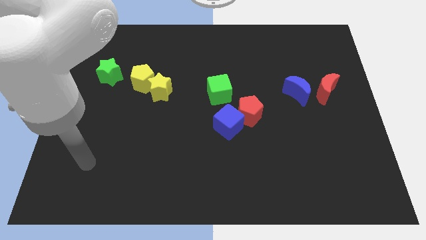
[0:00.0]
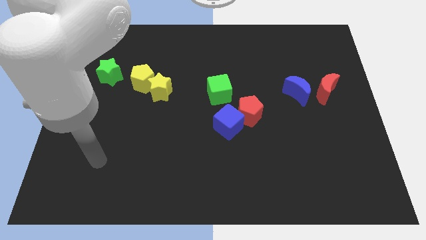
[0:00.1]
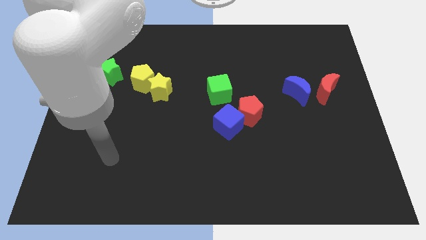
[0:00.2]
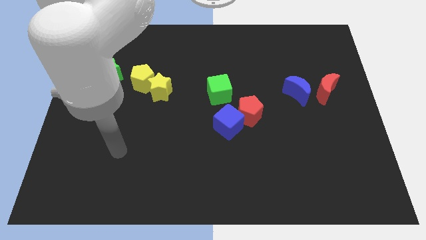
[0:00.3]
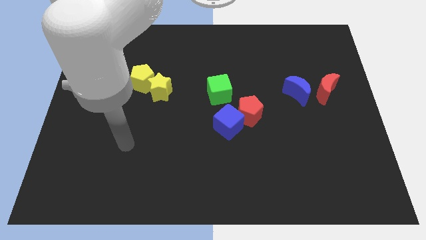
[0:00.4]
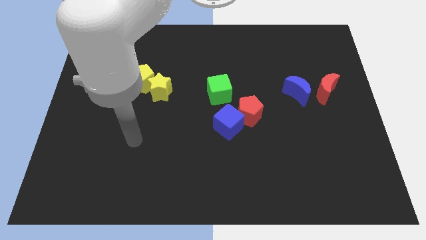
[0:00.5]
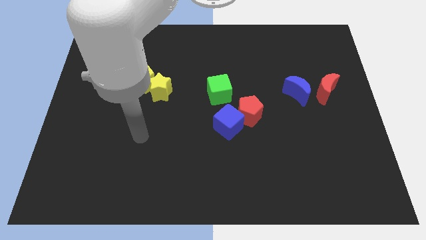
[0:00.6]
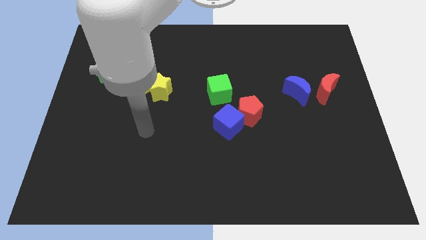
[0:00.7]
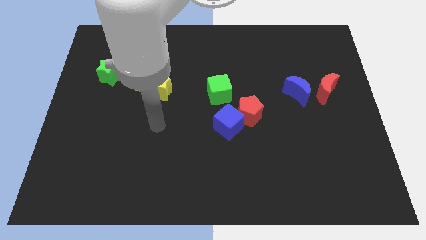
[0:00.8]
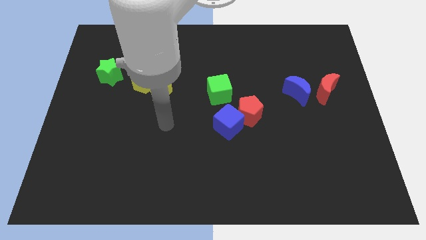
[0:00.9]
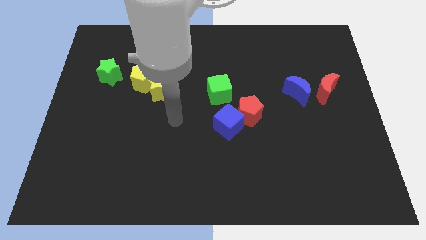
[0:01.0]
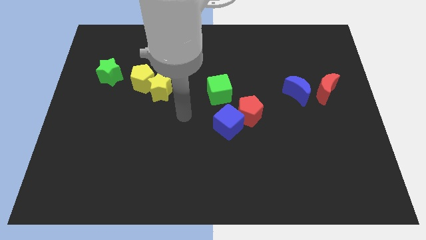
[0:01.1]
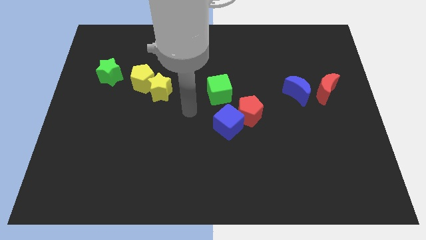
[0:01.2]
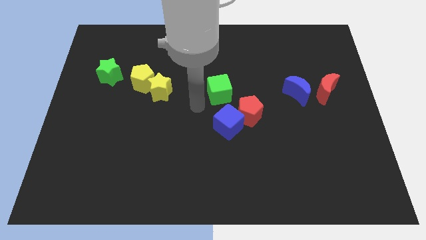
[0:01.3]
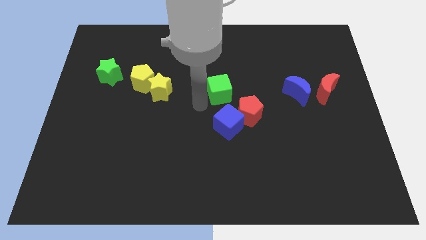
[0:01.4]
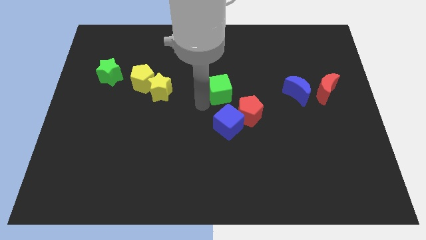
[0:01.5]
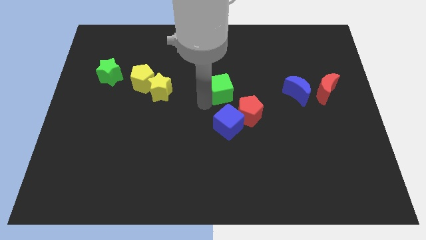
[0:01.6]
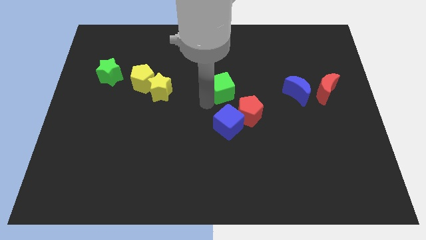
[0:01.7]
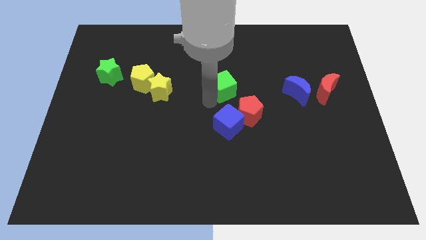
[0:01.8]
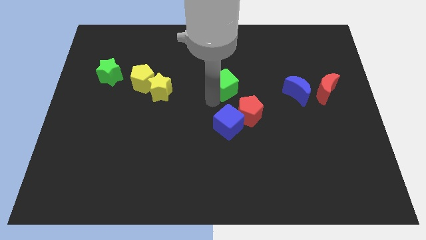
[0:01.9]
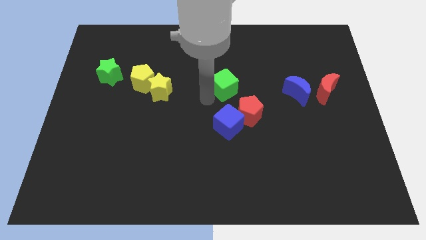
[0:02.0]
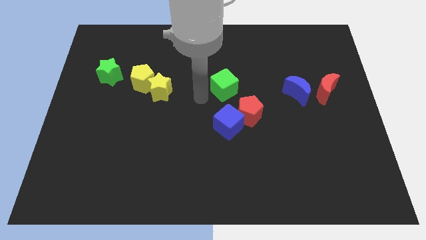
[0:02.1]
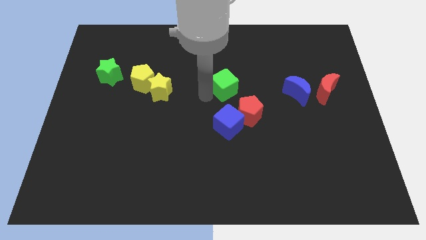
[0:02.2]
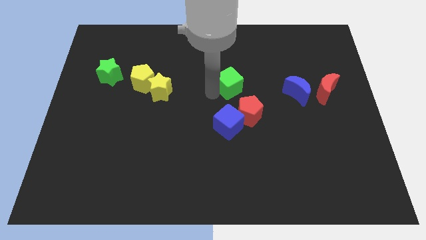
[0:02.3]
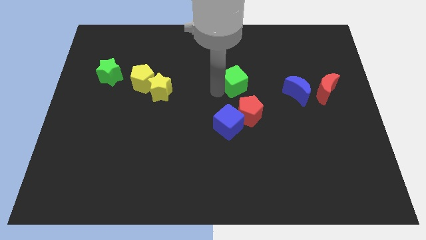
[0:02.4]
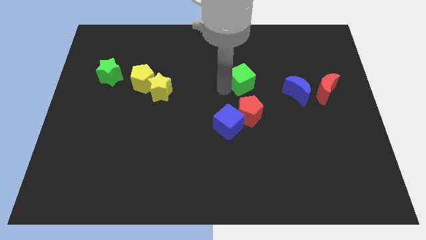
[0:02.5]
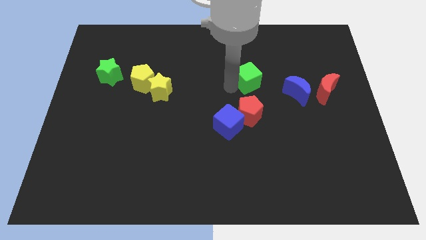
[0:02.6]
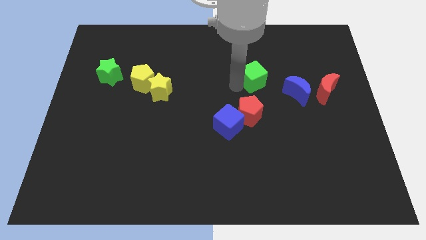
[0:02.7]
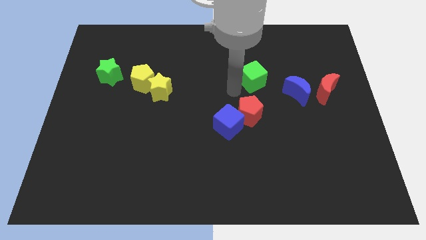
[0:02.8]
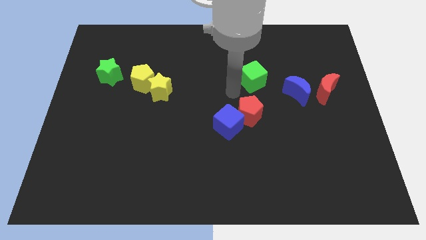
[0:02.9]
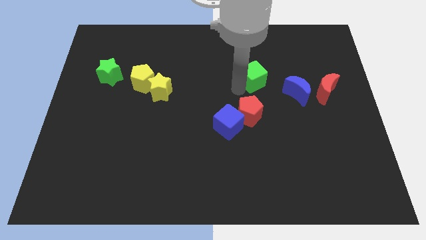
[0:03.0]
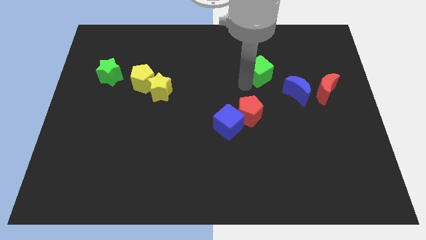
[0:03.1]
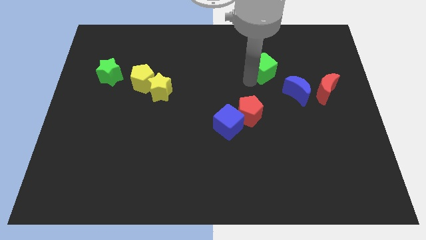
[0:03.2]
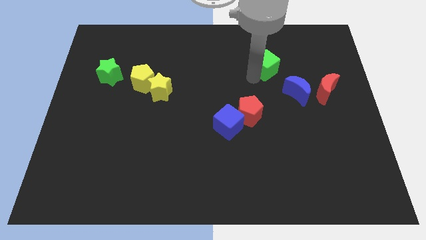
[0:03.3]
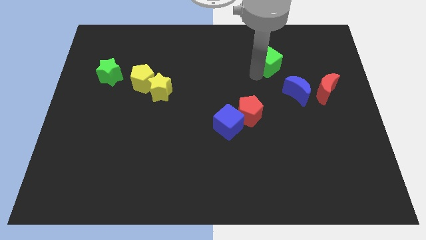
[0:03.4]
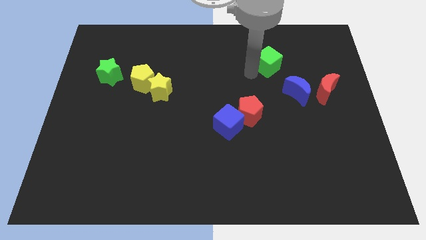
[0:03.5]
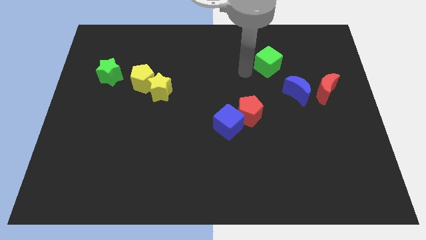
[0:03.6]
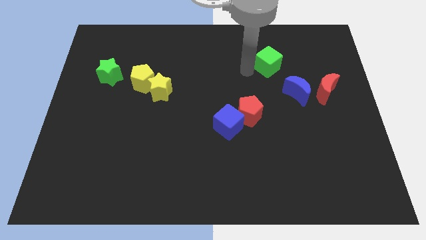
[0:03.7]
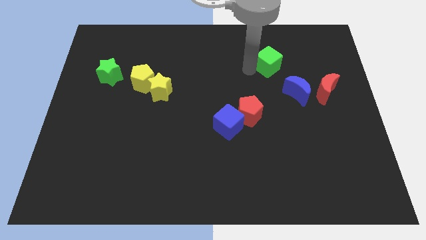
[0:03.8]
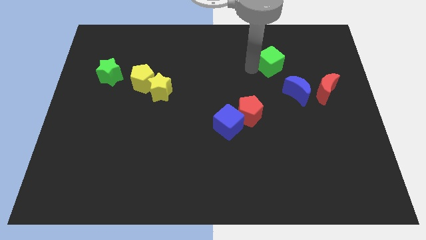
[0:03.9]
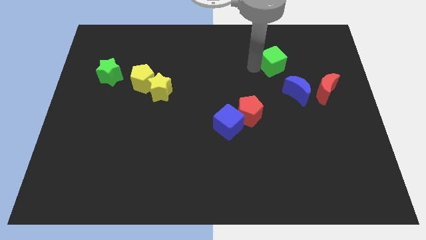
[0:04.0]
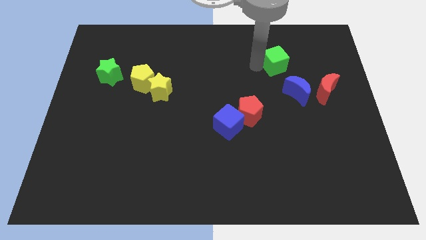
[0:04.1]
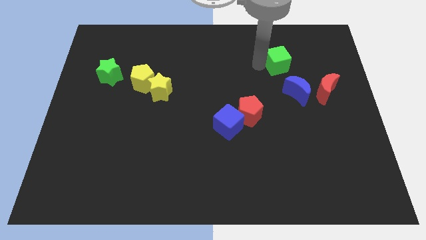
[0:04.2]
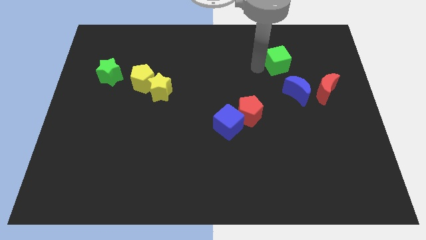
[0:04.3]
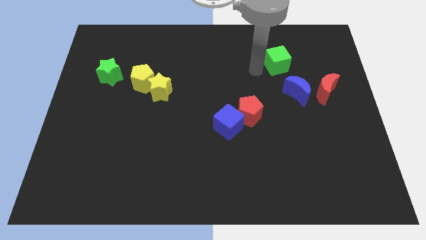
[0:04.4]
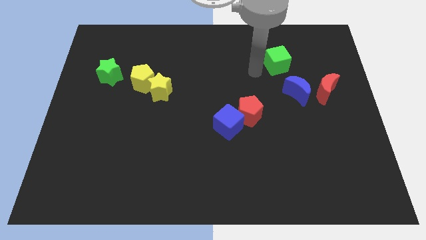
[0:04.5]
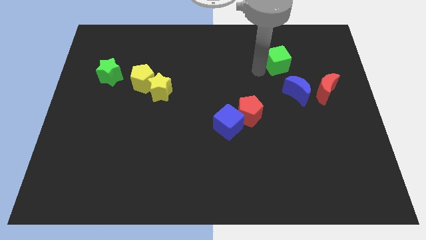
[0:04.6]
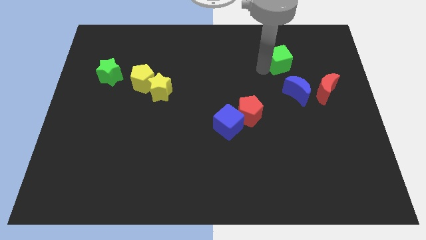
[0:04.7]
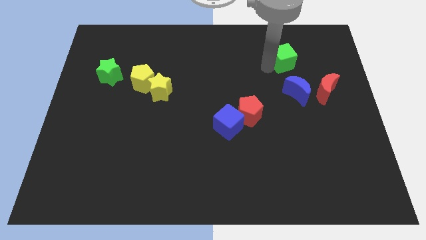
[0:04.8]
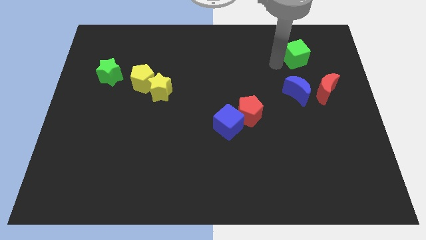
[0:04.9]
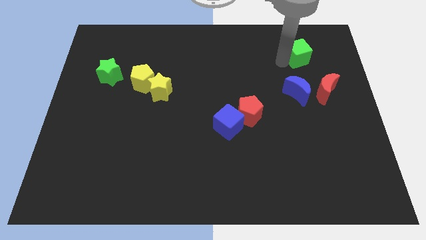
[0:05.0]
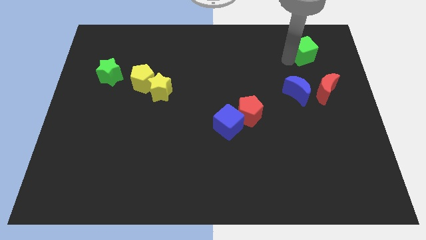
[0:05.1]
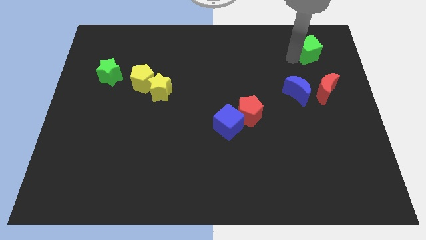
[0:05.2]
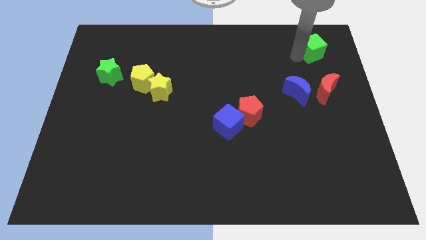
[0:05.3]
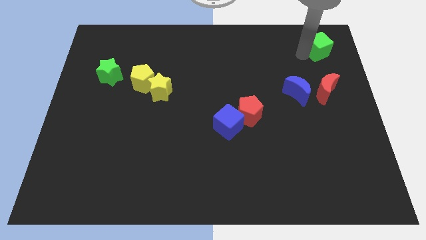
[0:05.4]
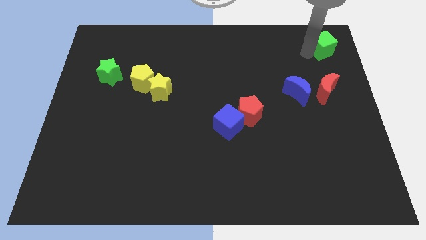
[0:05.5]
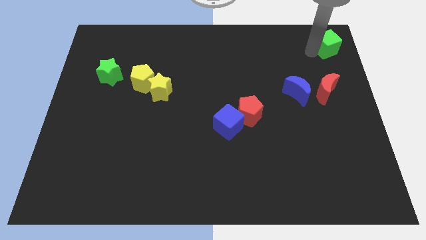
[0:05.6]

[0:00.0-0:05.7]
push the green cube to the top right corner

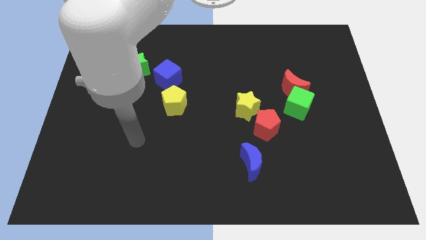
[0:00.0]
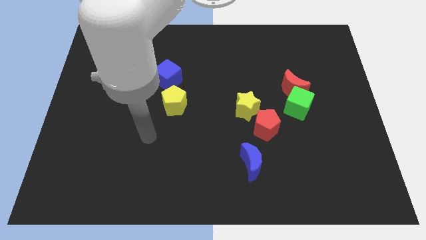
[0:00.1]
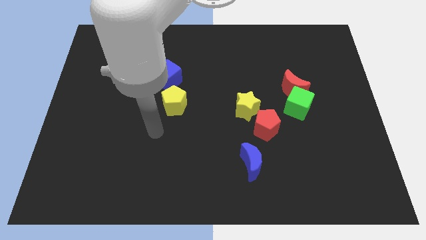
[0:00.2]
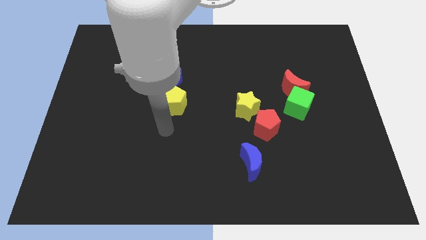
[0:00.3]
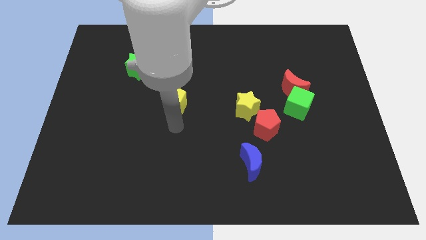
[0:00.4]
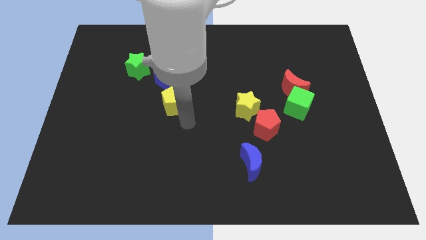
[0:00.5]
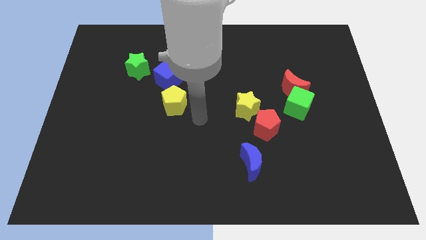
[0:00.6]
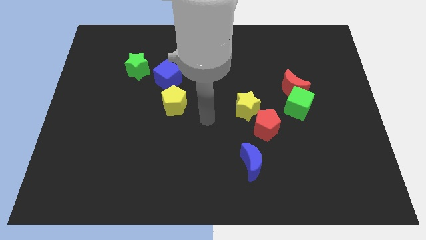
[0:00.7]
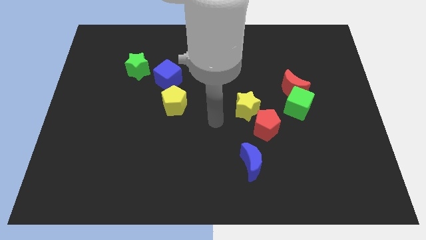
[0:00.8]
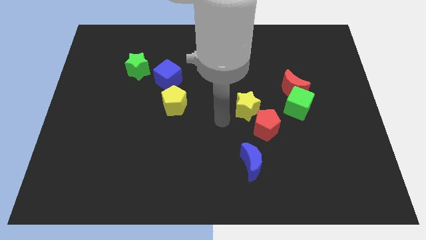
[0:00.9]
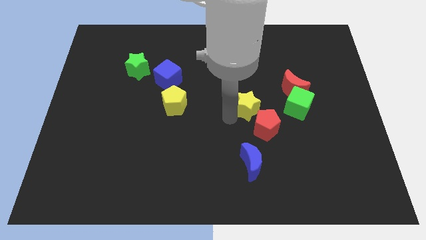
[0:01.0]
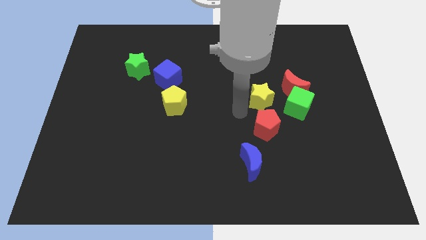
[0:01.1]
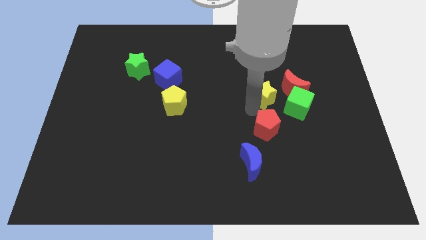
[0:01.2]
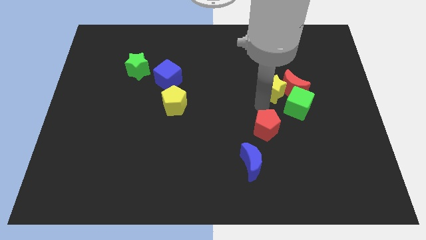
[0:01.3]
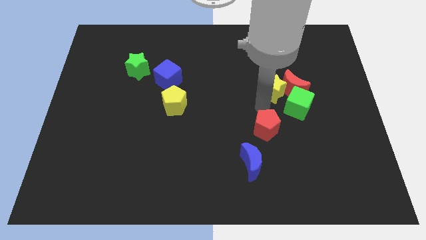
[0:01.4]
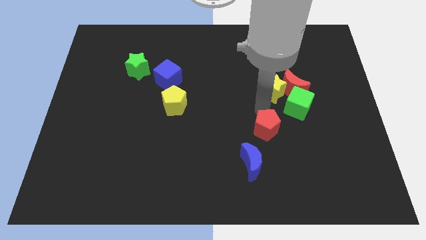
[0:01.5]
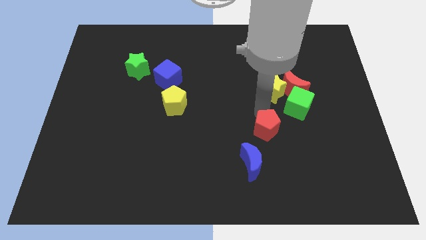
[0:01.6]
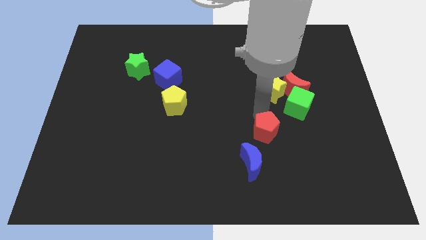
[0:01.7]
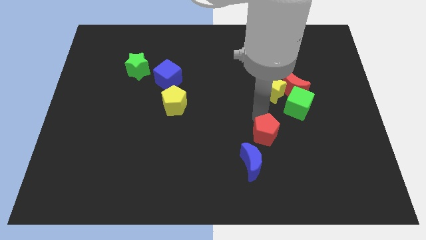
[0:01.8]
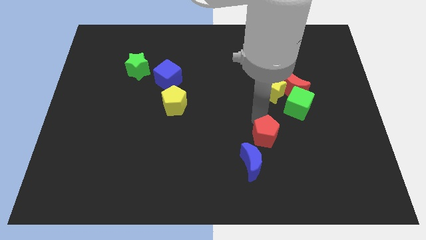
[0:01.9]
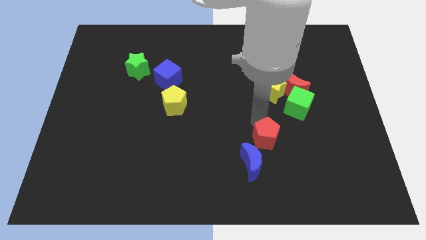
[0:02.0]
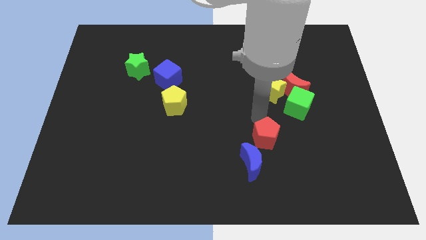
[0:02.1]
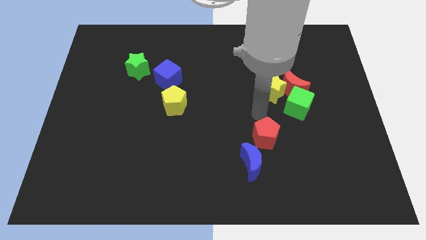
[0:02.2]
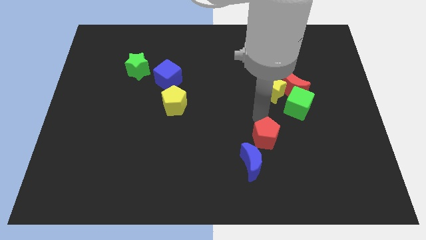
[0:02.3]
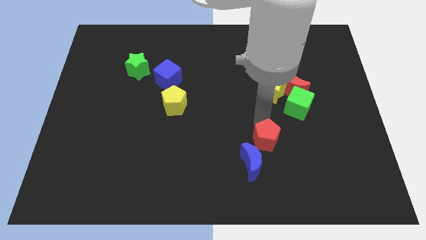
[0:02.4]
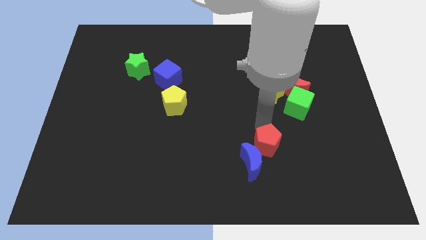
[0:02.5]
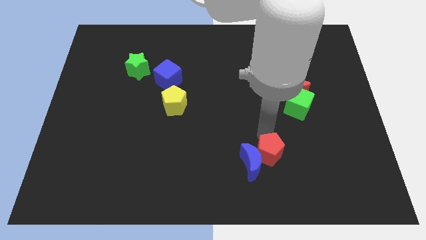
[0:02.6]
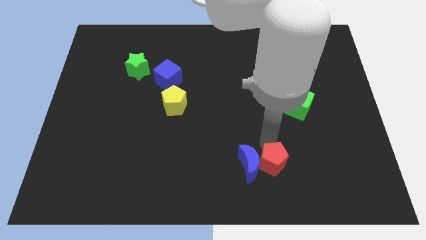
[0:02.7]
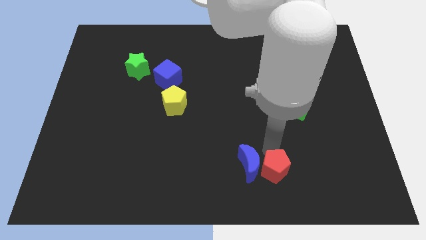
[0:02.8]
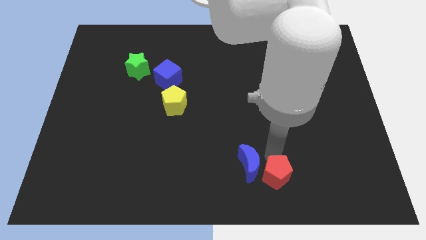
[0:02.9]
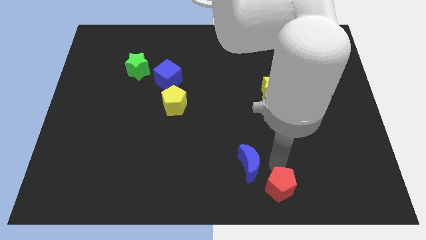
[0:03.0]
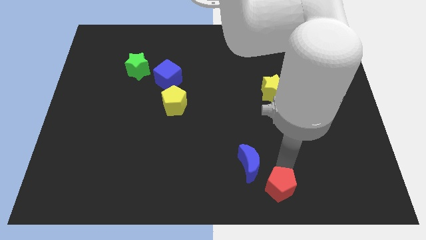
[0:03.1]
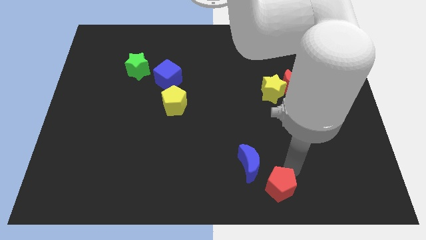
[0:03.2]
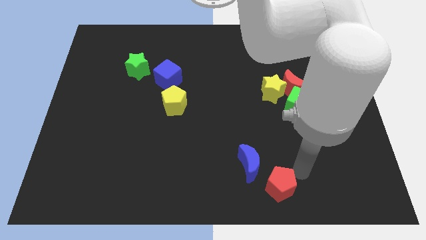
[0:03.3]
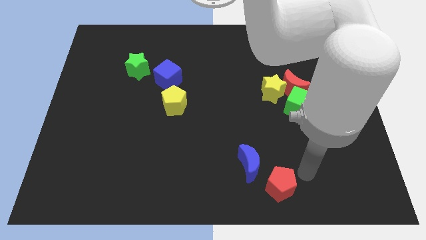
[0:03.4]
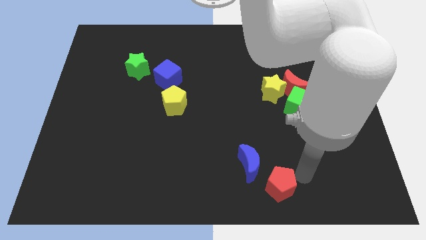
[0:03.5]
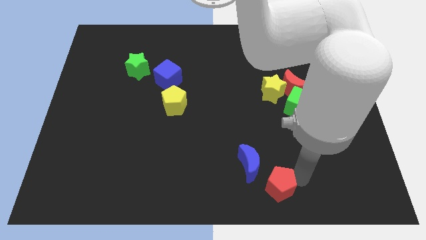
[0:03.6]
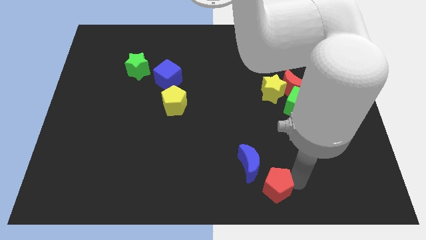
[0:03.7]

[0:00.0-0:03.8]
put the red pentagon to the bottom
